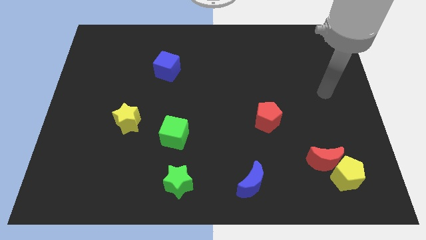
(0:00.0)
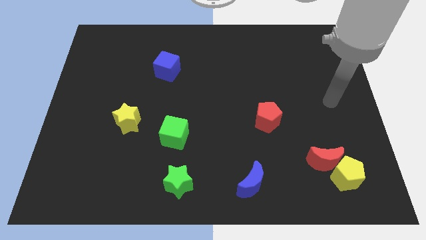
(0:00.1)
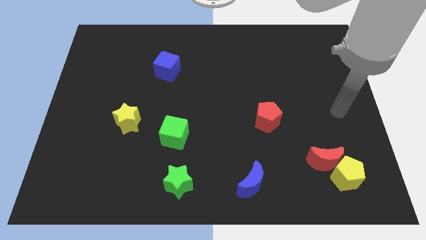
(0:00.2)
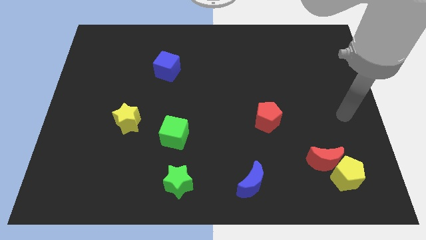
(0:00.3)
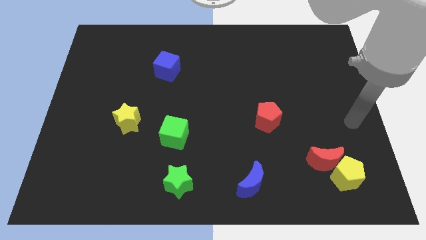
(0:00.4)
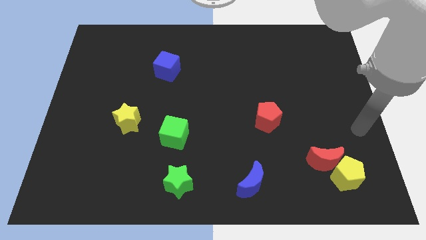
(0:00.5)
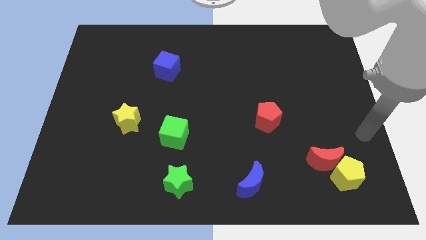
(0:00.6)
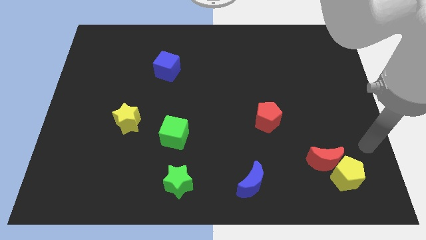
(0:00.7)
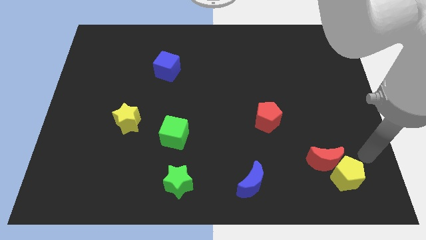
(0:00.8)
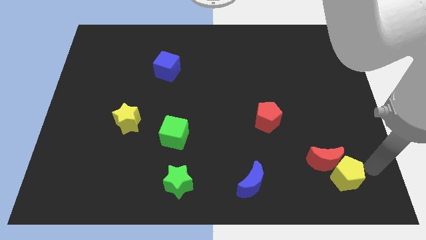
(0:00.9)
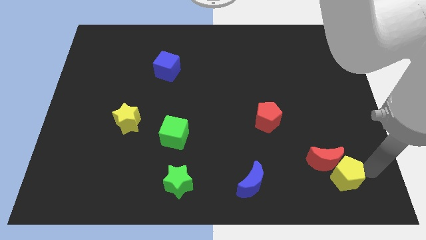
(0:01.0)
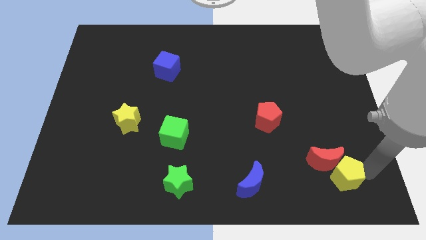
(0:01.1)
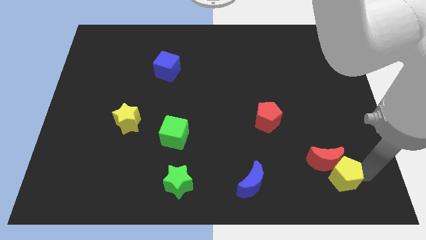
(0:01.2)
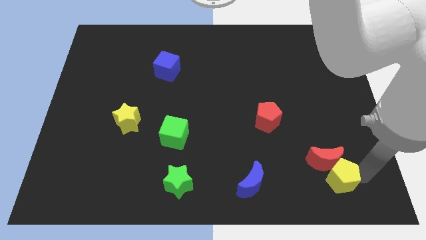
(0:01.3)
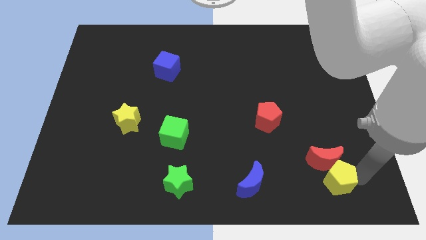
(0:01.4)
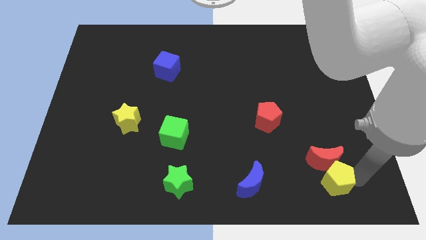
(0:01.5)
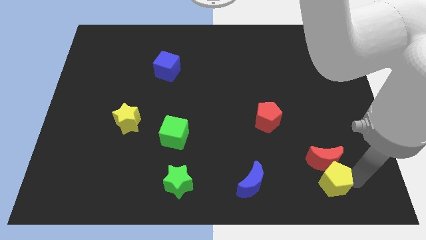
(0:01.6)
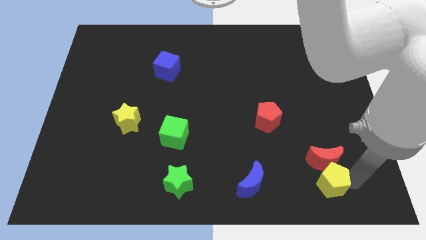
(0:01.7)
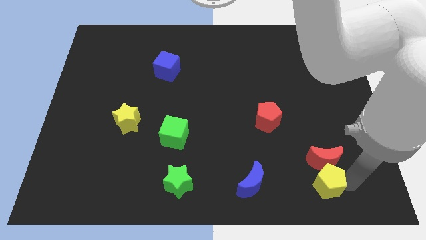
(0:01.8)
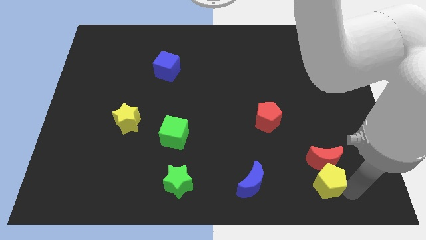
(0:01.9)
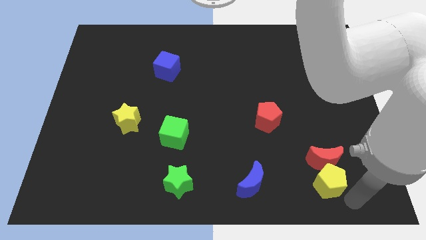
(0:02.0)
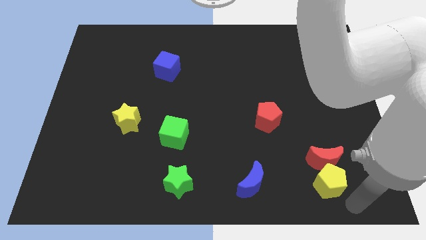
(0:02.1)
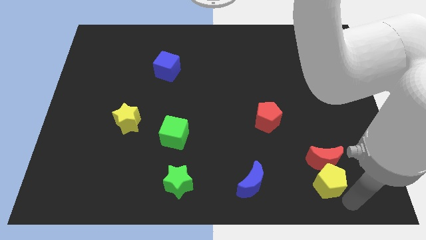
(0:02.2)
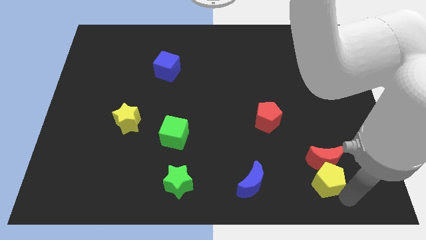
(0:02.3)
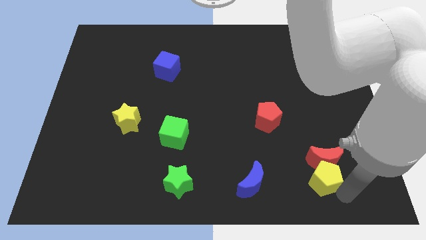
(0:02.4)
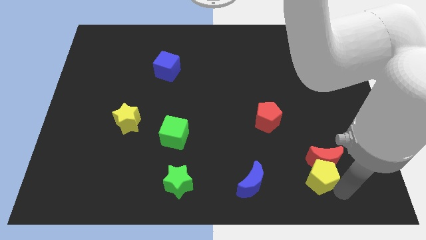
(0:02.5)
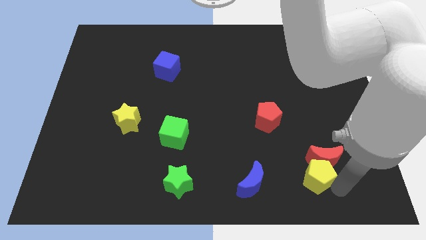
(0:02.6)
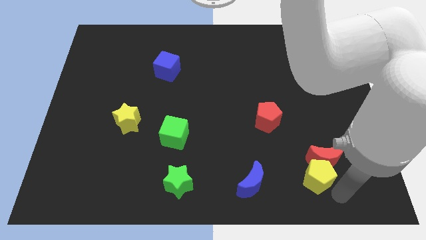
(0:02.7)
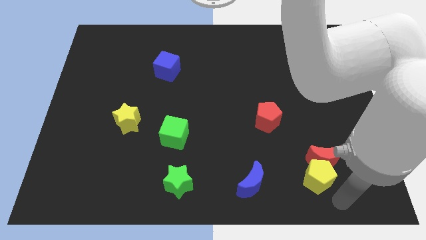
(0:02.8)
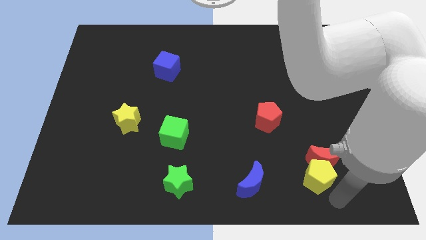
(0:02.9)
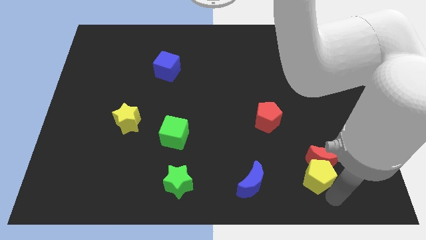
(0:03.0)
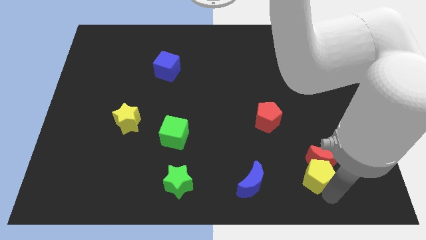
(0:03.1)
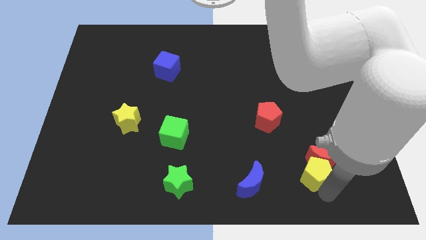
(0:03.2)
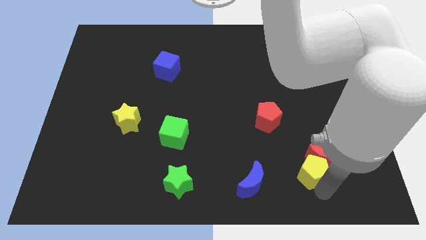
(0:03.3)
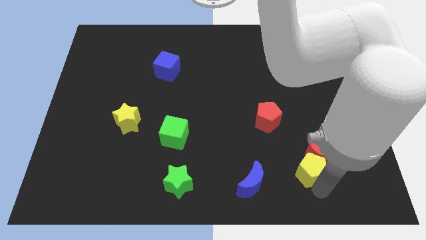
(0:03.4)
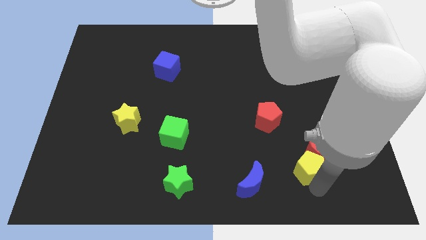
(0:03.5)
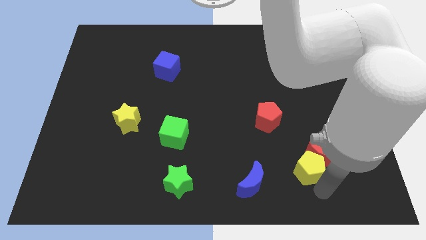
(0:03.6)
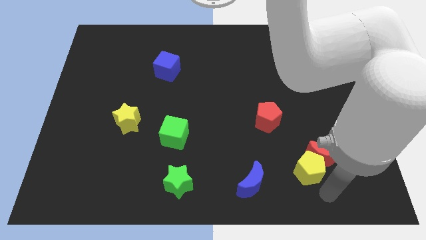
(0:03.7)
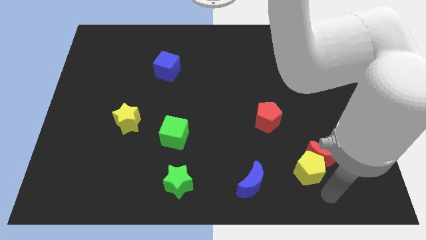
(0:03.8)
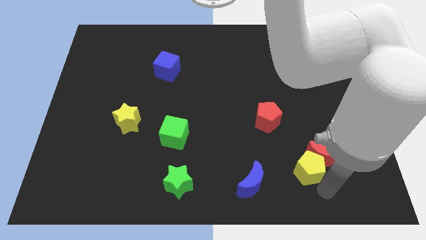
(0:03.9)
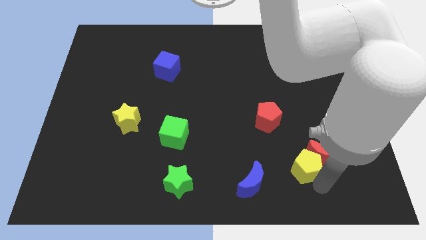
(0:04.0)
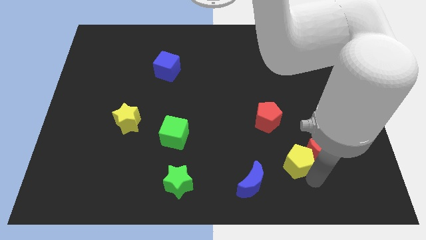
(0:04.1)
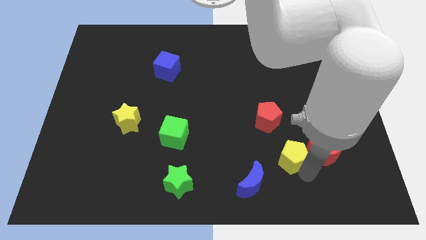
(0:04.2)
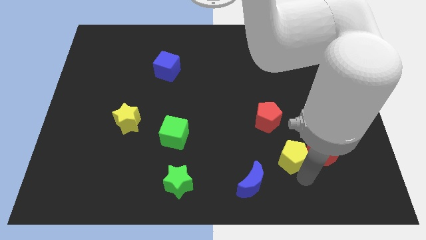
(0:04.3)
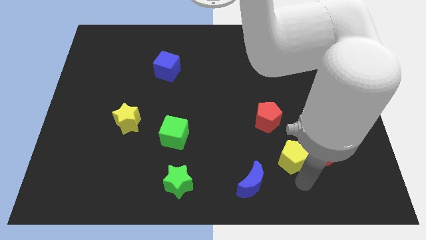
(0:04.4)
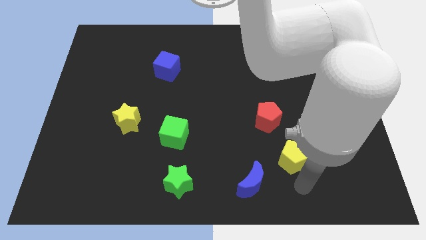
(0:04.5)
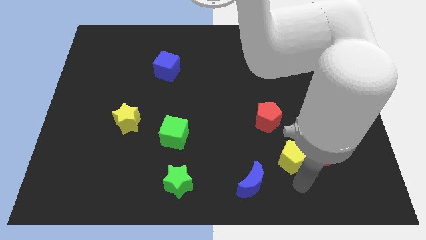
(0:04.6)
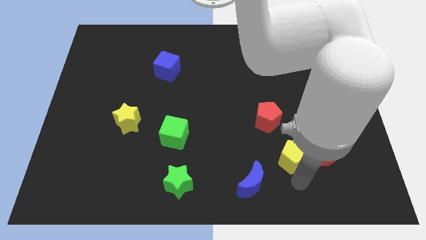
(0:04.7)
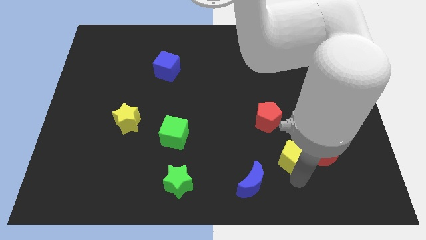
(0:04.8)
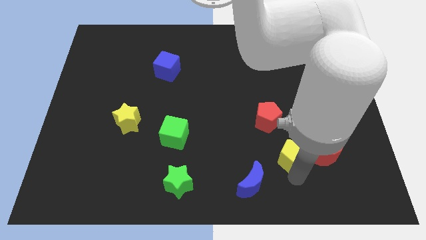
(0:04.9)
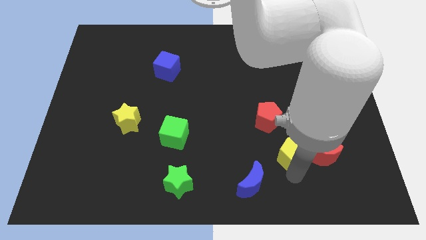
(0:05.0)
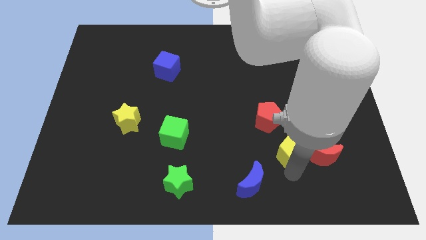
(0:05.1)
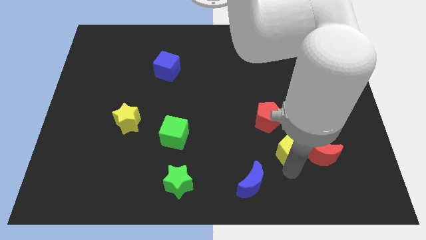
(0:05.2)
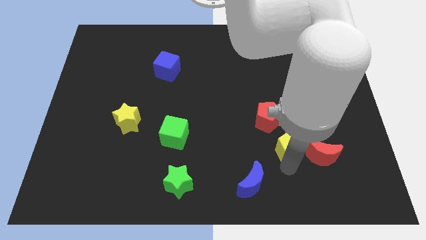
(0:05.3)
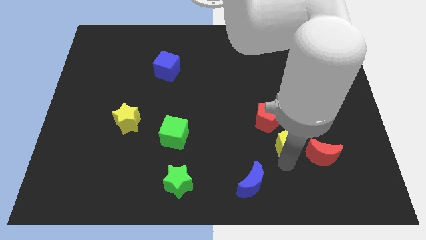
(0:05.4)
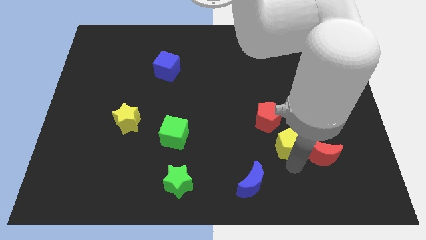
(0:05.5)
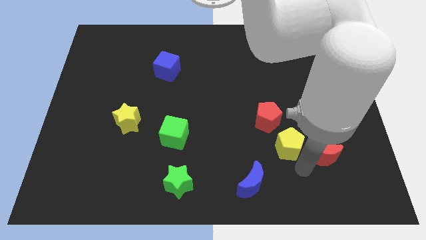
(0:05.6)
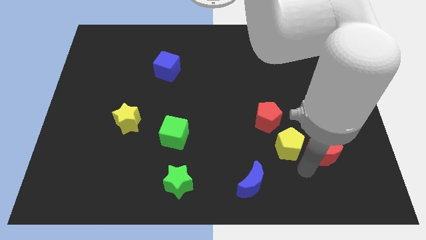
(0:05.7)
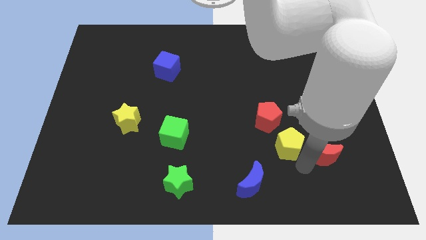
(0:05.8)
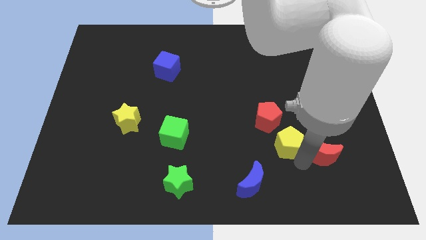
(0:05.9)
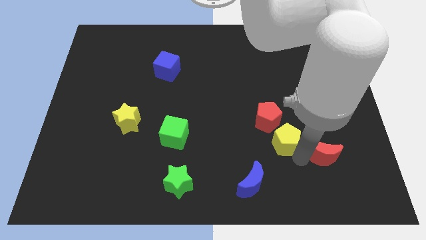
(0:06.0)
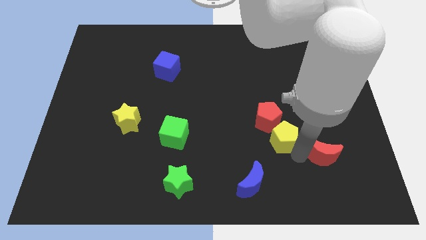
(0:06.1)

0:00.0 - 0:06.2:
put the yellow pentagon next to the red pentagon

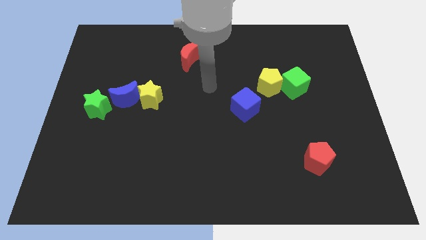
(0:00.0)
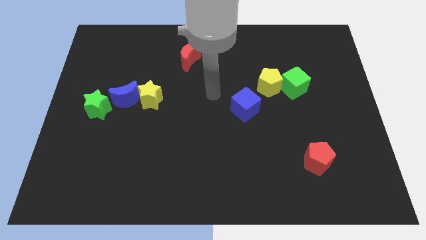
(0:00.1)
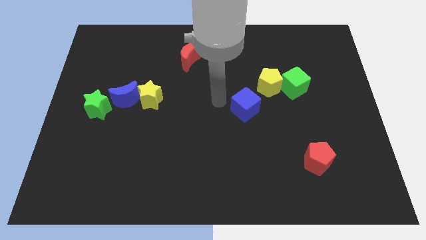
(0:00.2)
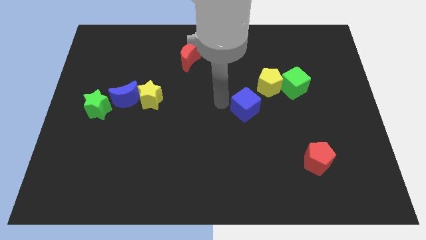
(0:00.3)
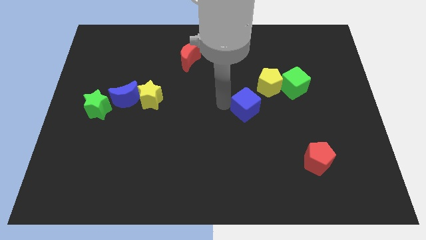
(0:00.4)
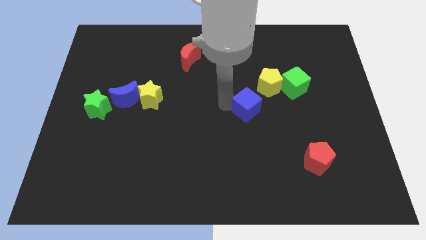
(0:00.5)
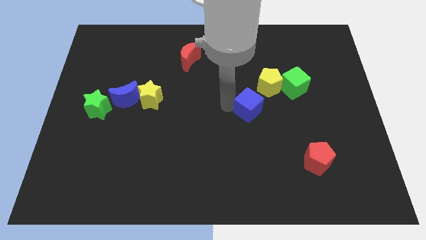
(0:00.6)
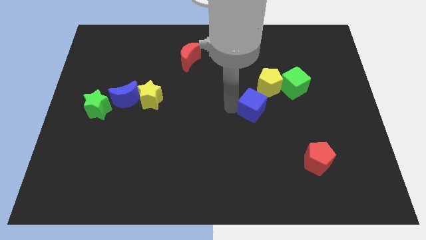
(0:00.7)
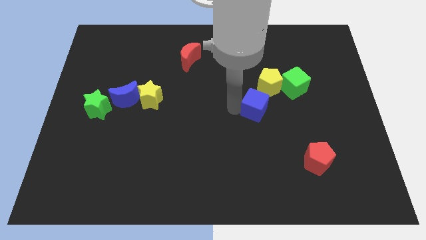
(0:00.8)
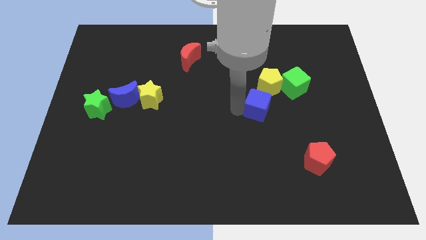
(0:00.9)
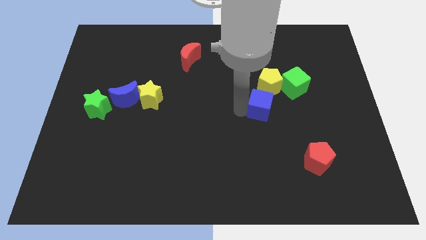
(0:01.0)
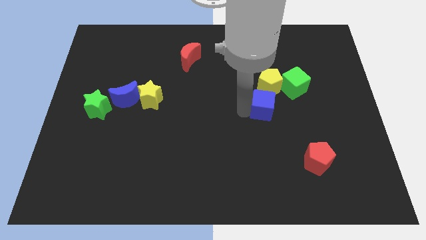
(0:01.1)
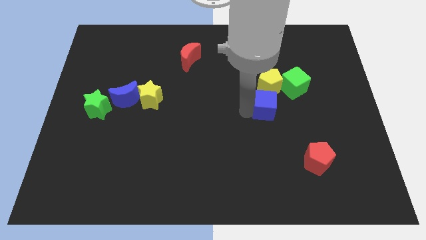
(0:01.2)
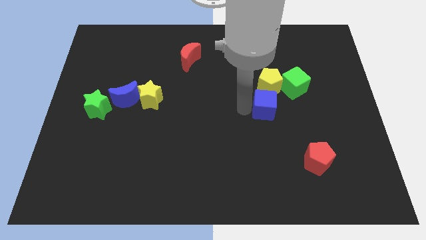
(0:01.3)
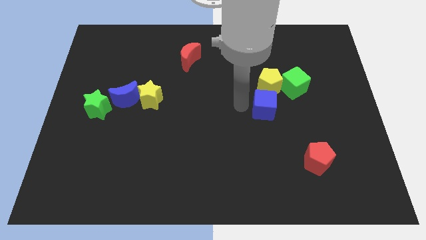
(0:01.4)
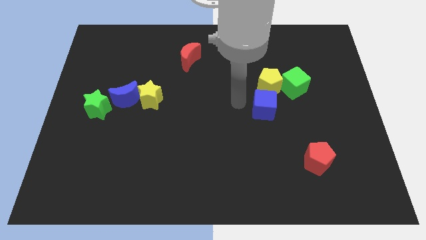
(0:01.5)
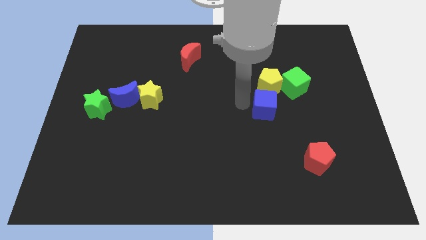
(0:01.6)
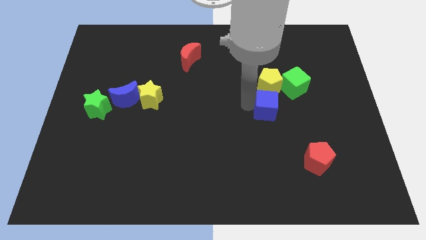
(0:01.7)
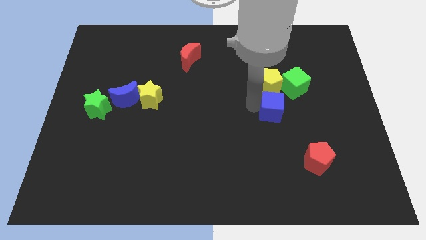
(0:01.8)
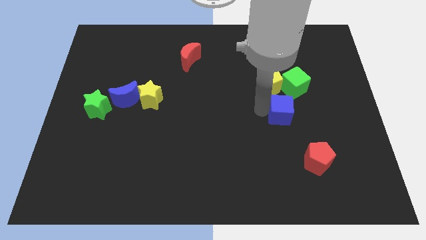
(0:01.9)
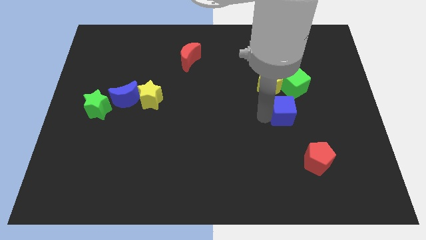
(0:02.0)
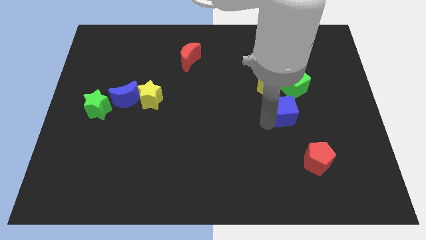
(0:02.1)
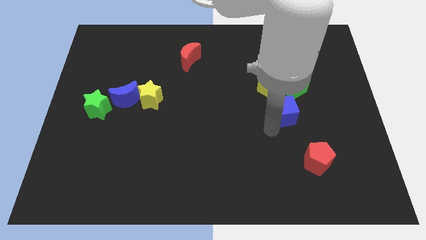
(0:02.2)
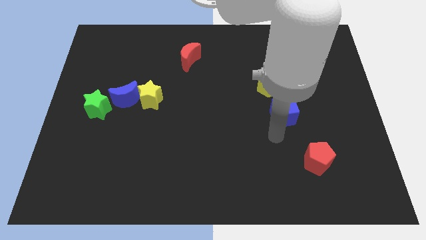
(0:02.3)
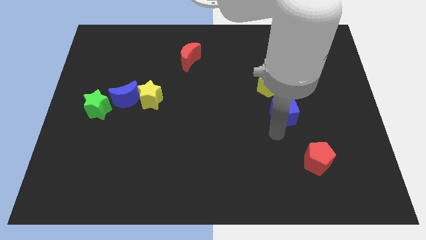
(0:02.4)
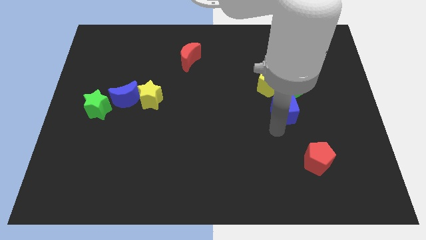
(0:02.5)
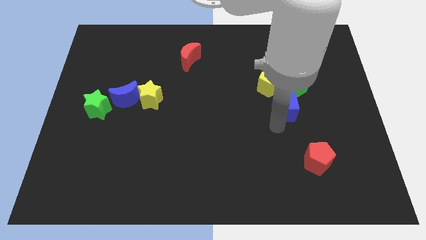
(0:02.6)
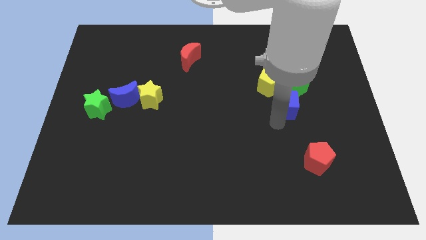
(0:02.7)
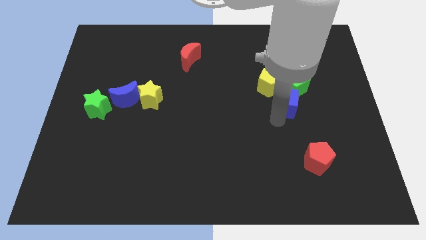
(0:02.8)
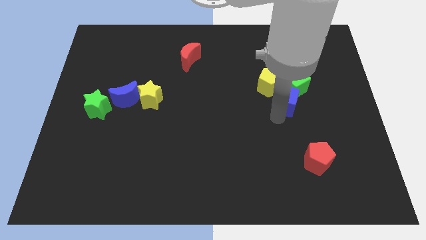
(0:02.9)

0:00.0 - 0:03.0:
push the blue cube next to the green cube
